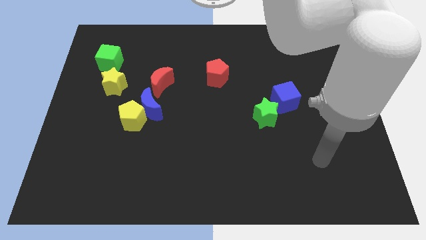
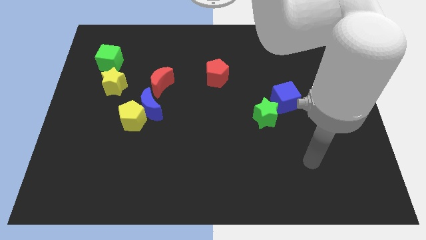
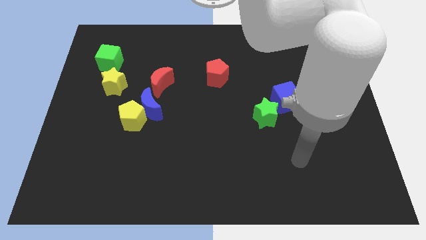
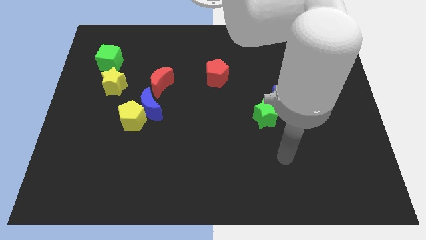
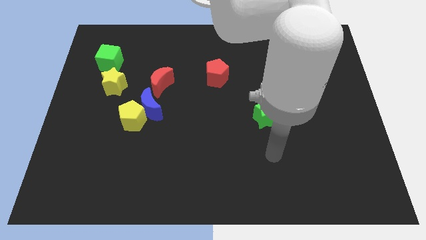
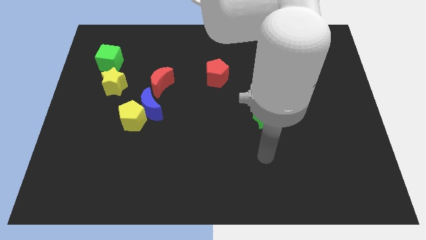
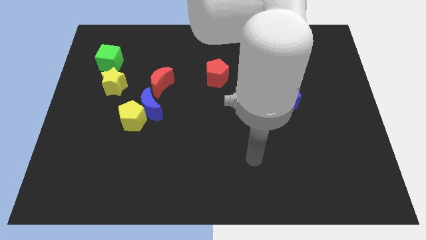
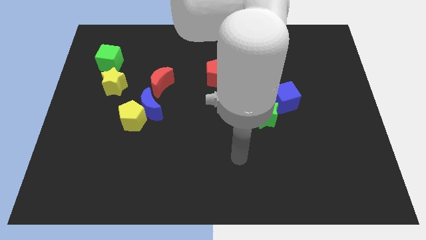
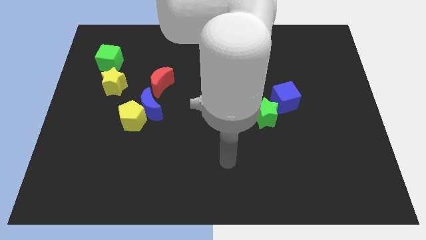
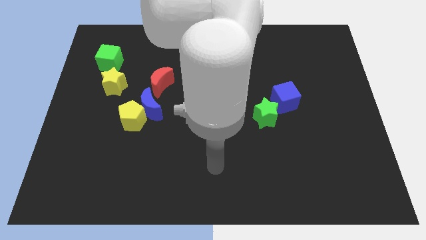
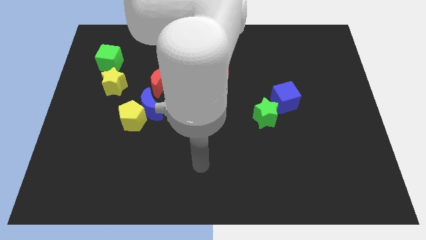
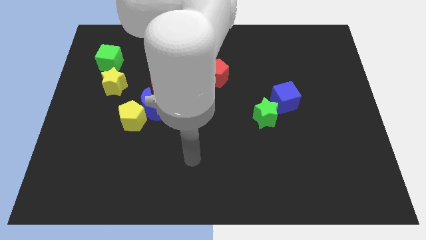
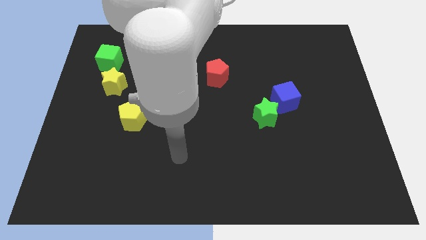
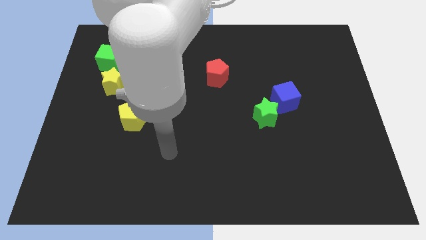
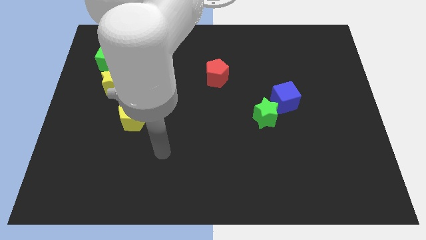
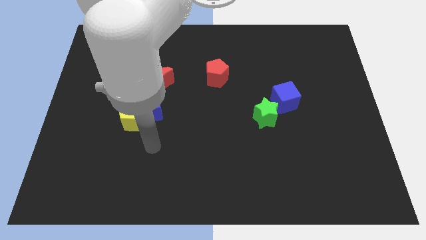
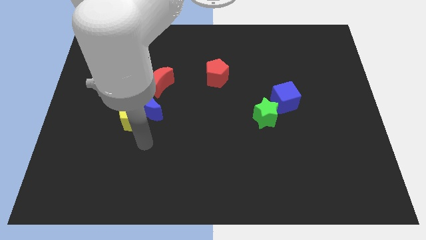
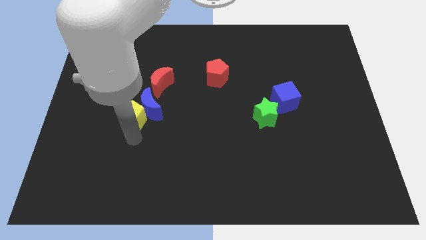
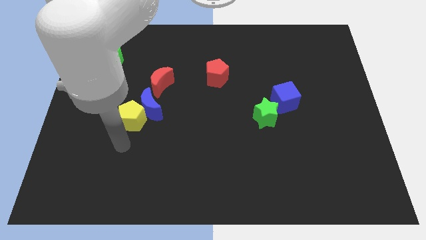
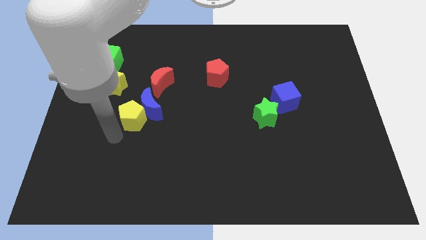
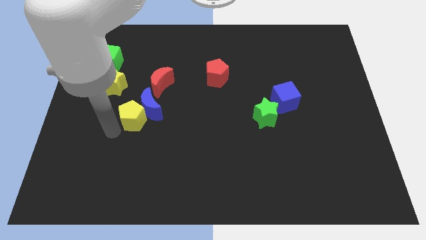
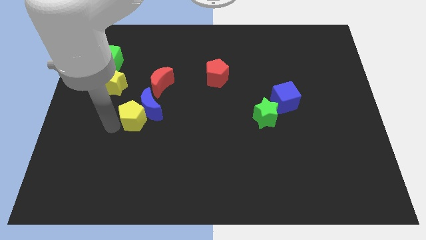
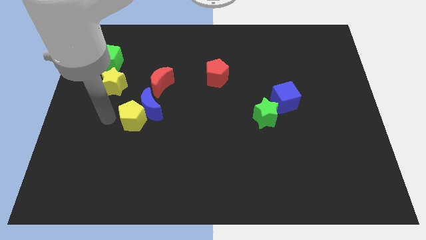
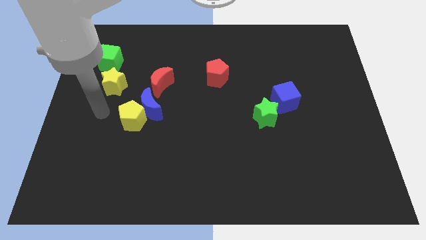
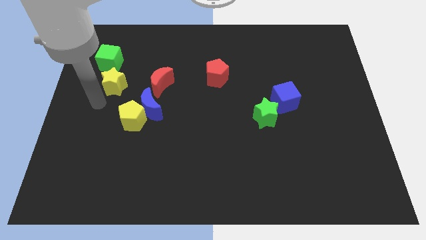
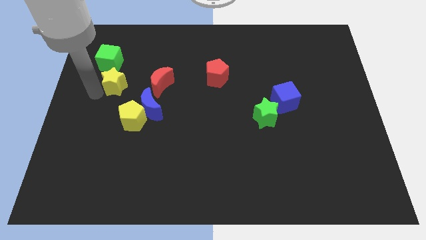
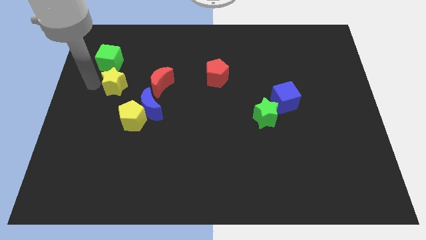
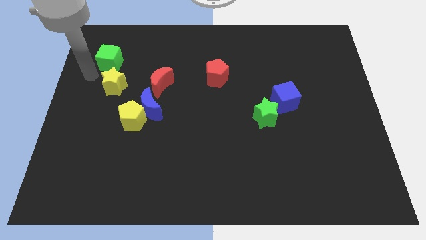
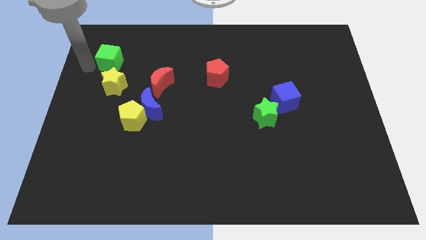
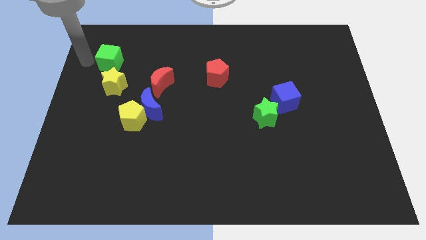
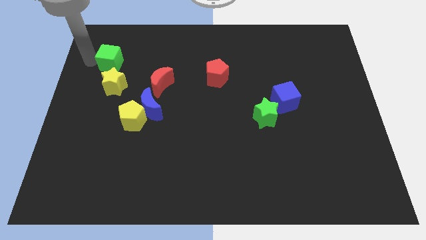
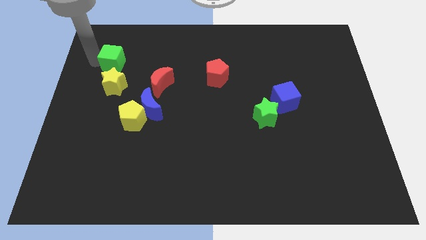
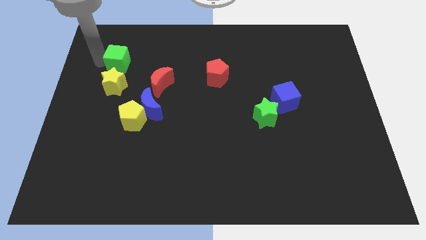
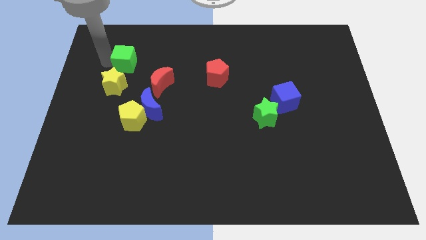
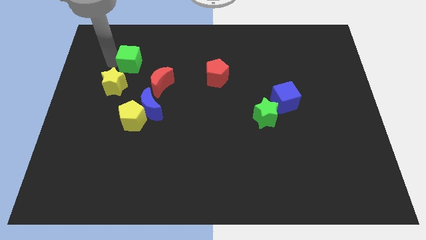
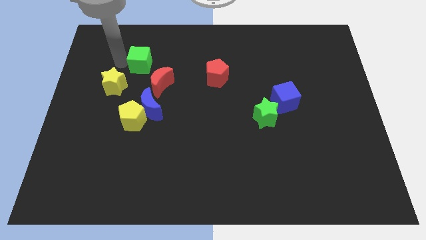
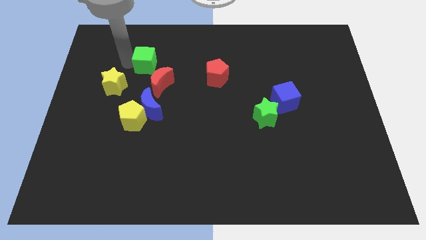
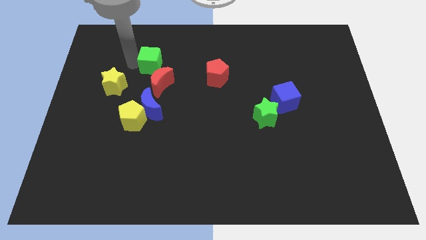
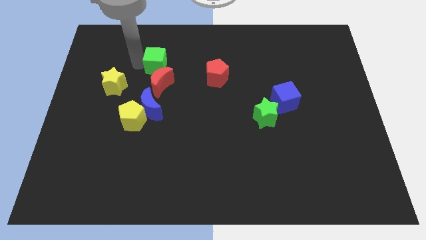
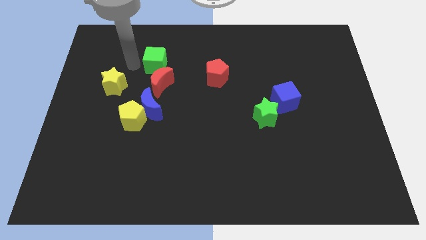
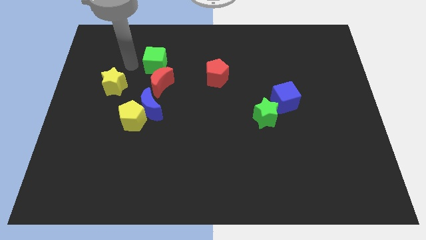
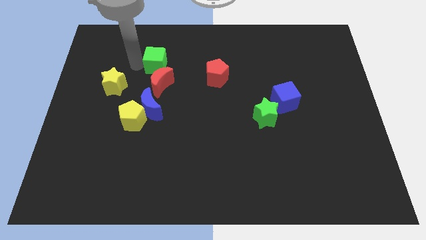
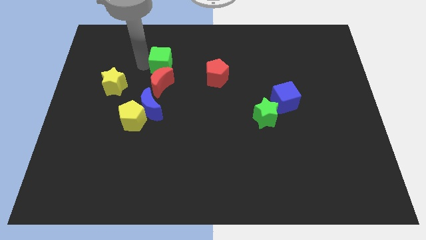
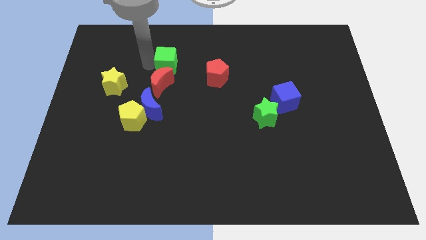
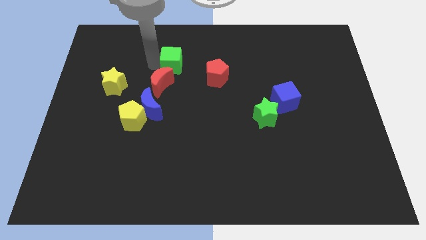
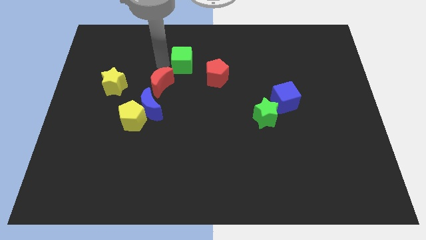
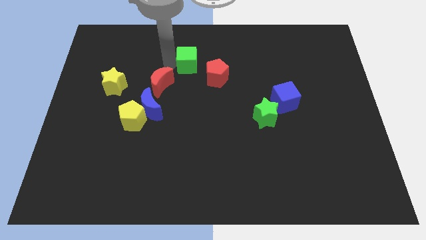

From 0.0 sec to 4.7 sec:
slide the green cube right

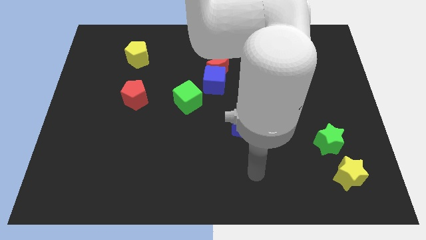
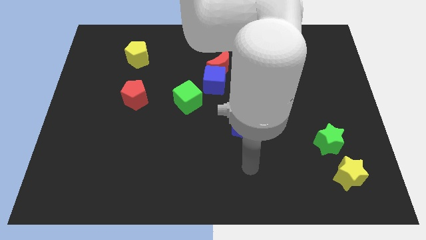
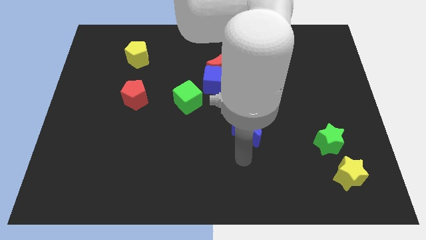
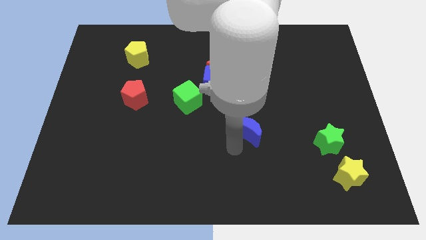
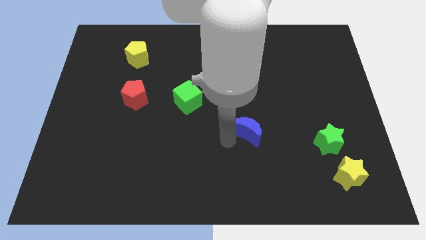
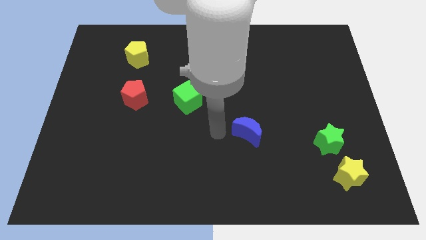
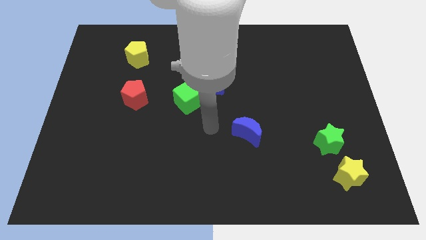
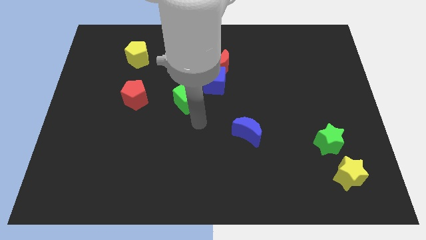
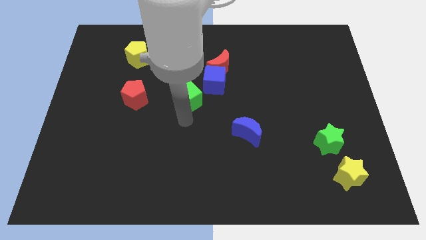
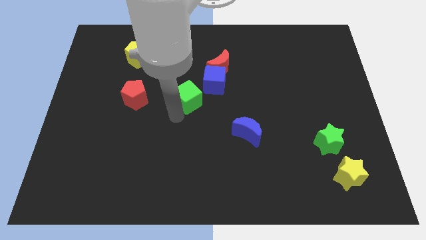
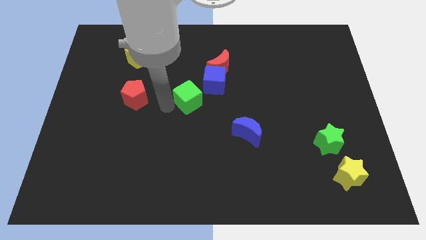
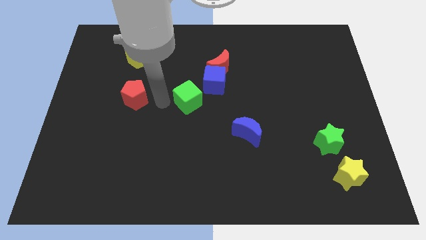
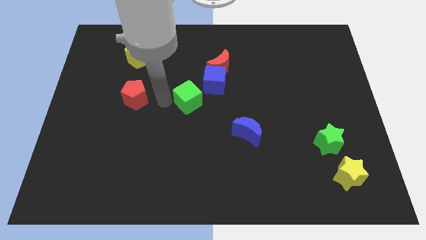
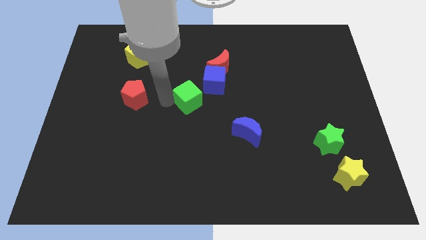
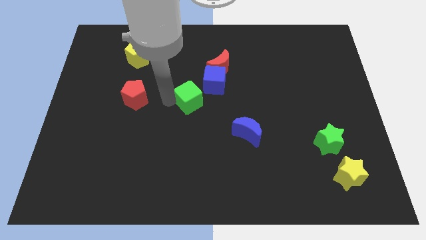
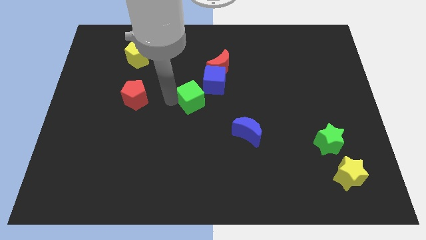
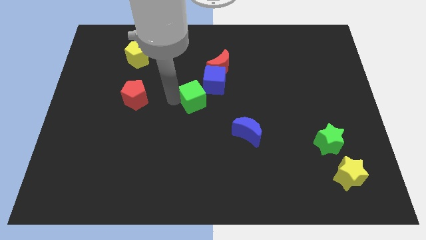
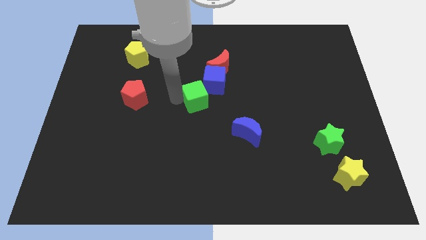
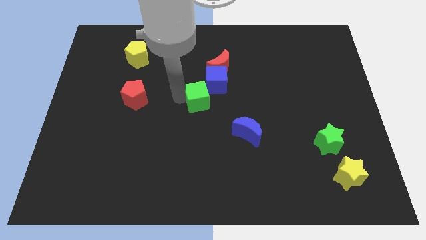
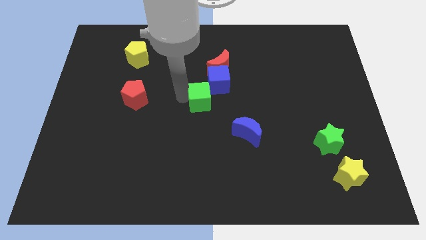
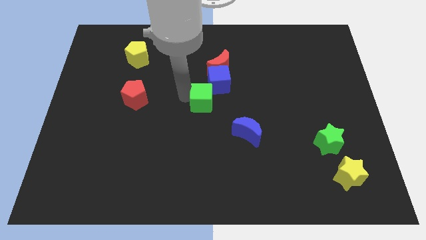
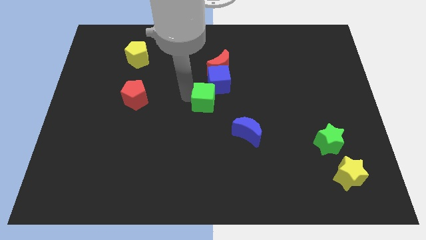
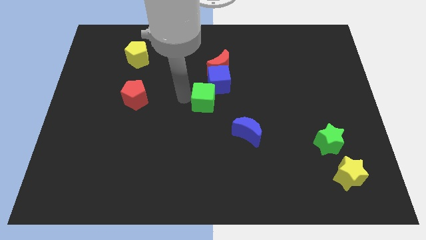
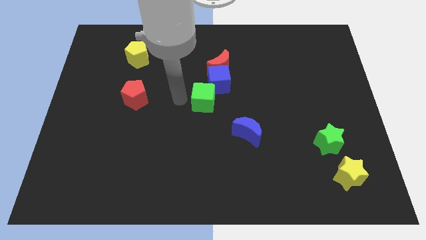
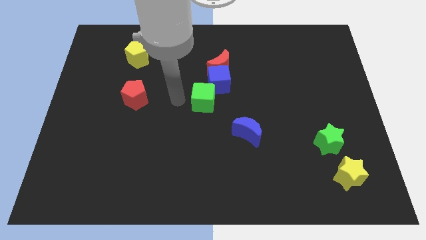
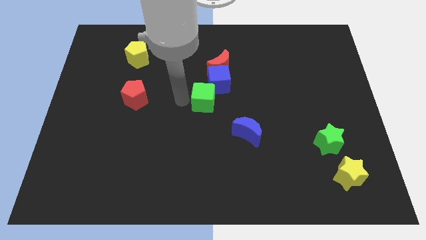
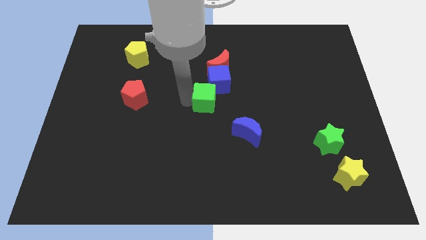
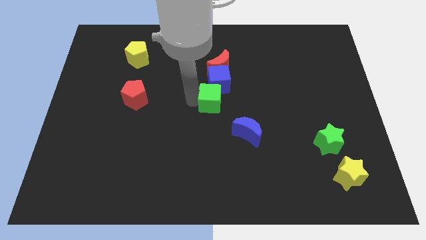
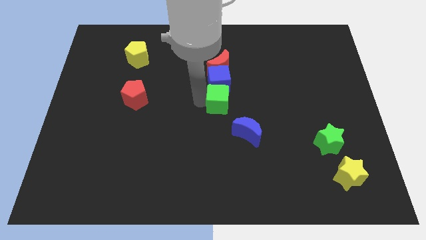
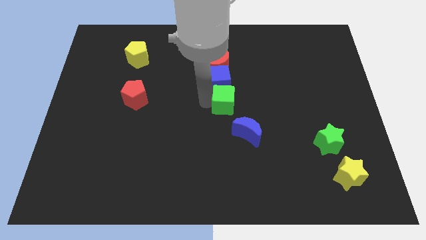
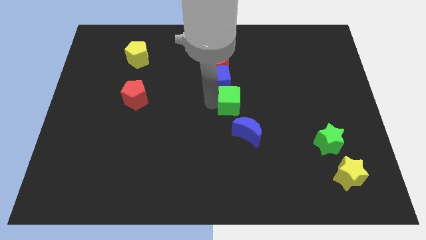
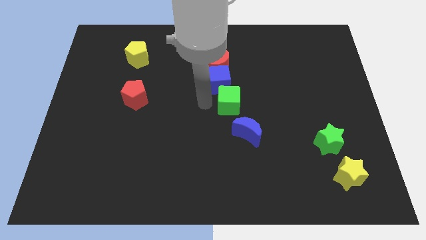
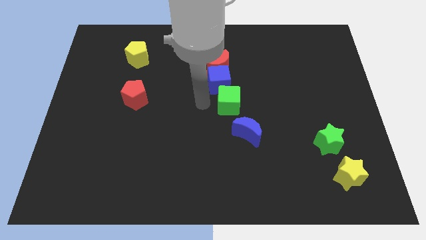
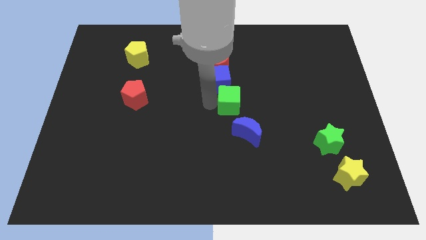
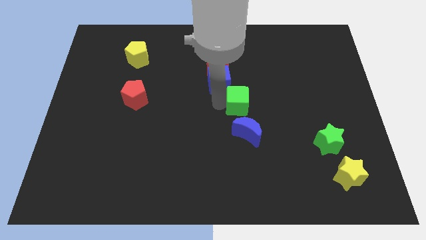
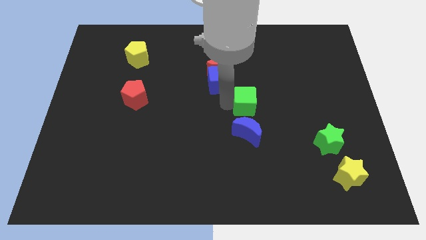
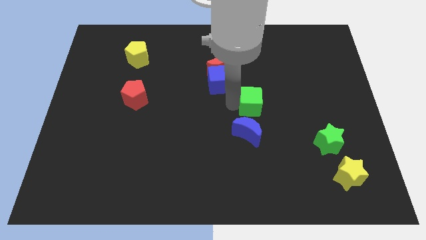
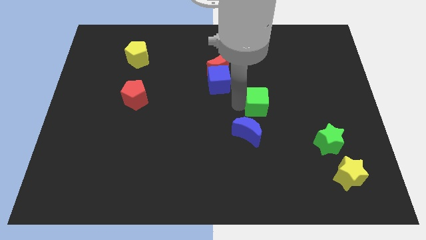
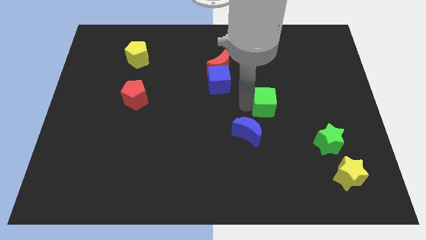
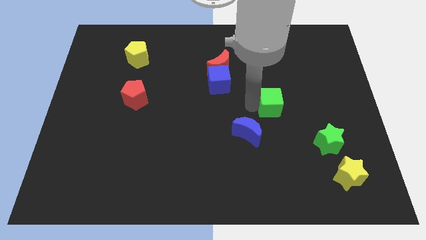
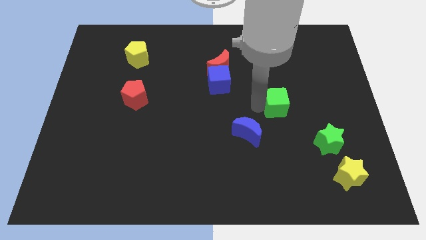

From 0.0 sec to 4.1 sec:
move the green cube right
